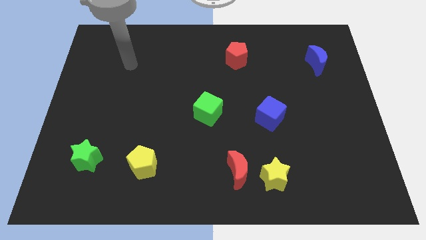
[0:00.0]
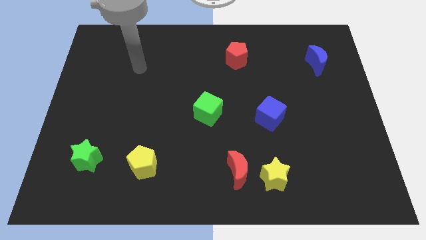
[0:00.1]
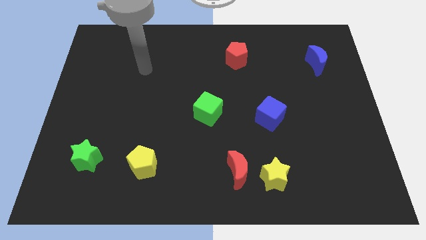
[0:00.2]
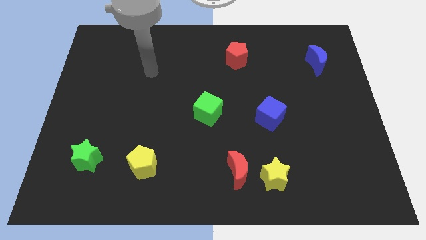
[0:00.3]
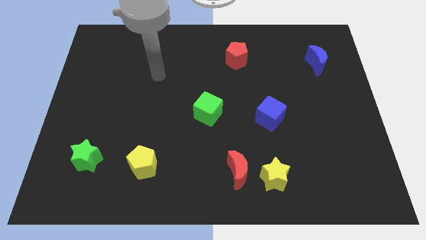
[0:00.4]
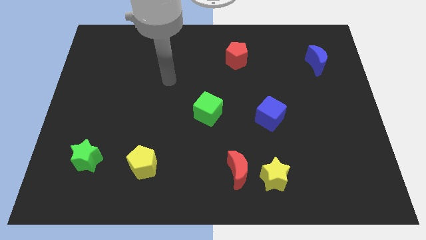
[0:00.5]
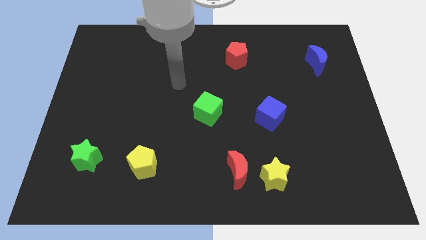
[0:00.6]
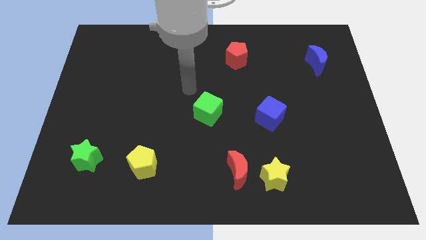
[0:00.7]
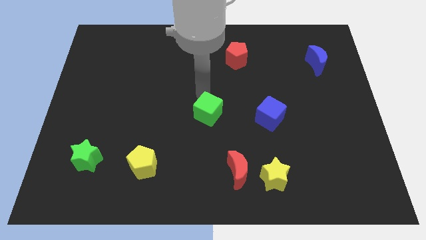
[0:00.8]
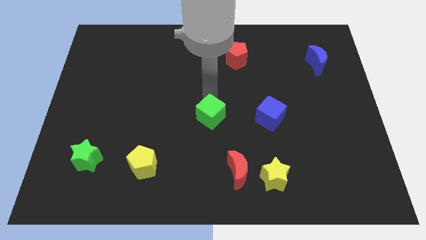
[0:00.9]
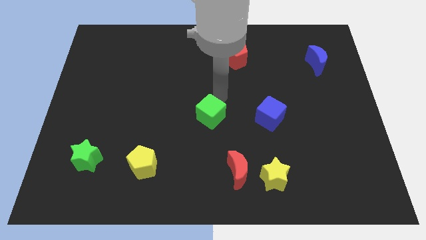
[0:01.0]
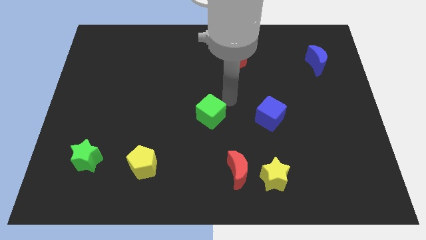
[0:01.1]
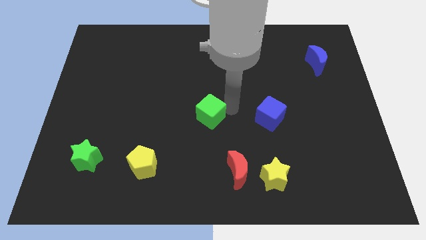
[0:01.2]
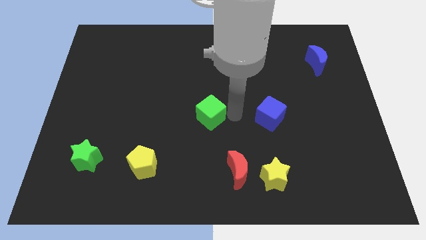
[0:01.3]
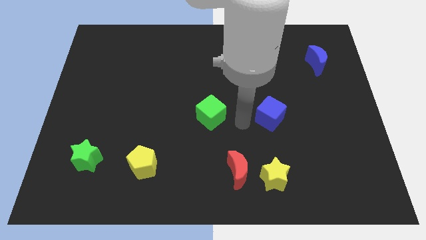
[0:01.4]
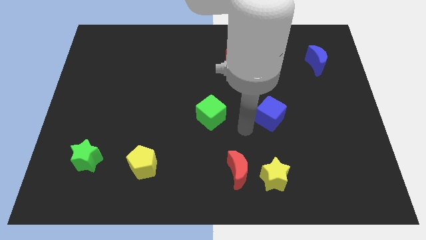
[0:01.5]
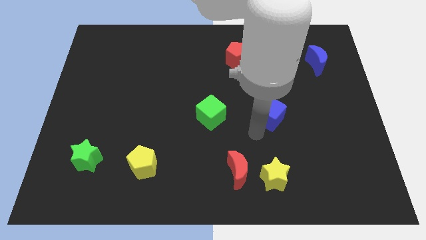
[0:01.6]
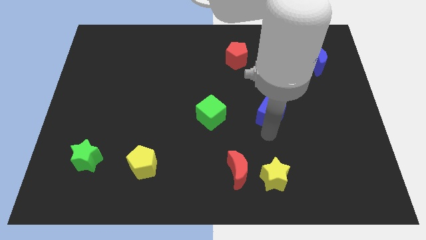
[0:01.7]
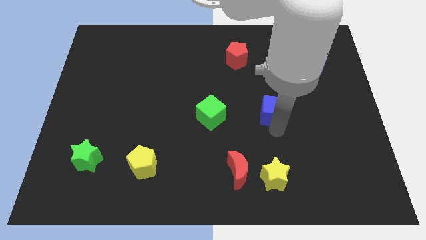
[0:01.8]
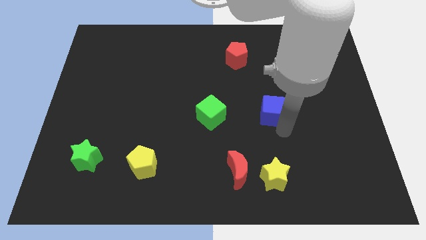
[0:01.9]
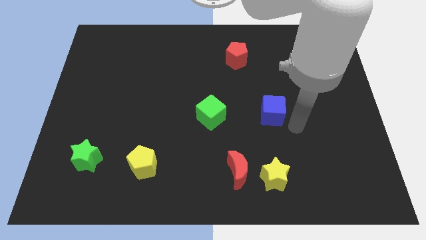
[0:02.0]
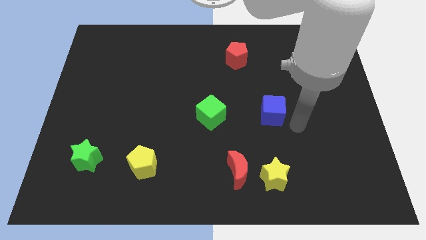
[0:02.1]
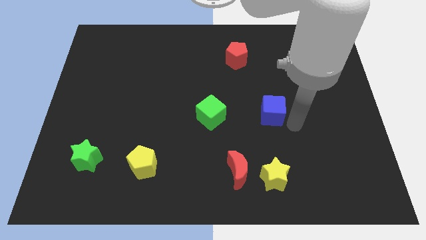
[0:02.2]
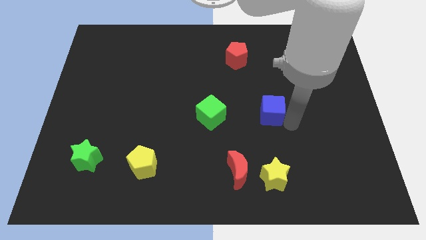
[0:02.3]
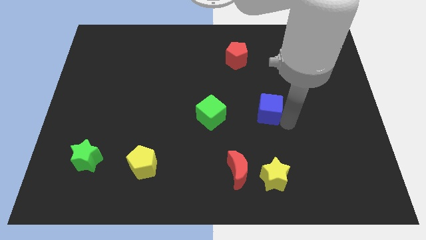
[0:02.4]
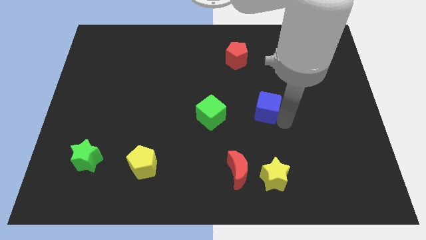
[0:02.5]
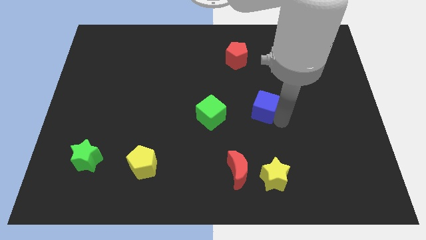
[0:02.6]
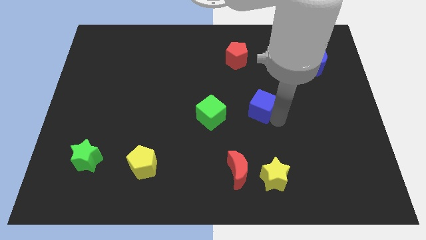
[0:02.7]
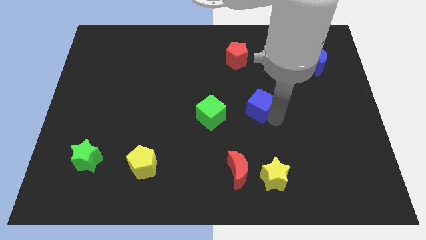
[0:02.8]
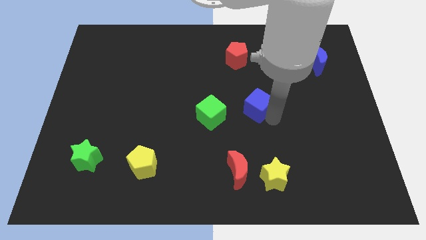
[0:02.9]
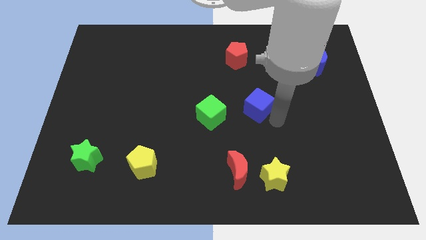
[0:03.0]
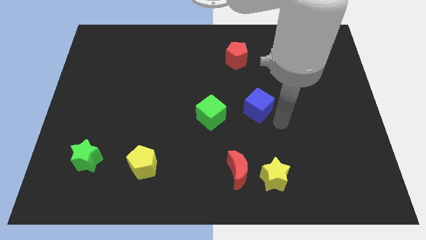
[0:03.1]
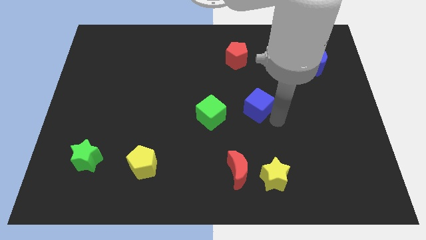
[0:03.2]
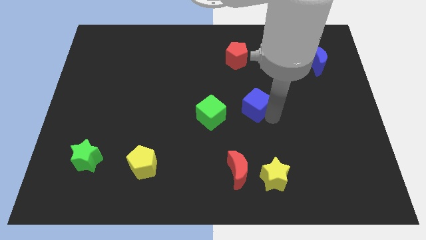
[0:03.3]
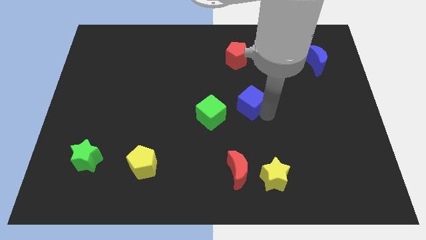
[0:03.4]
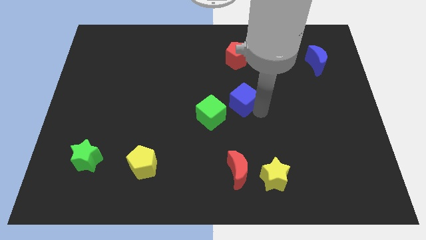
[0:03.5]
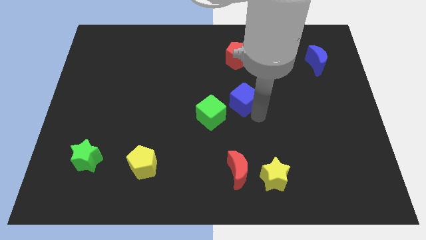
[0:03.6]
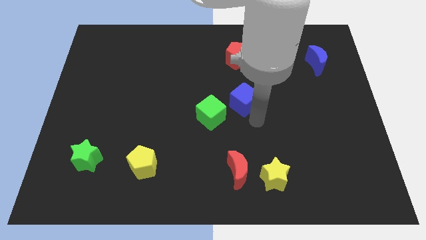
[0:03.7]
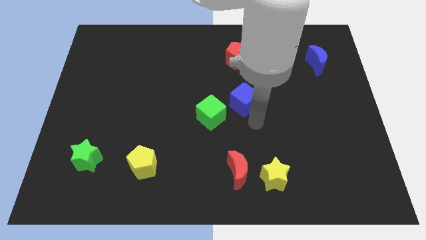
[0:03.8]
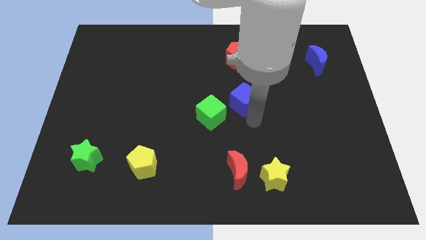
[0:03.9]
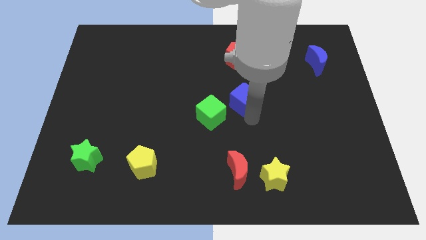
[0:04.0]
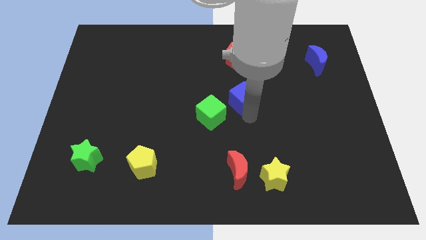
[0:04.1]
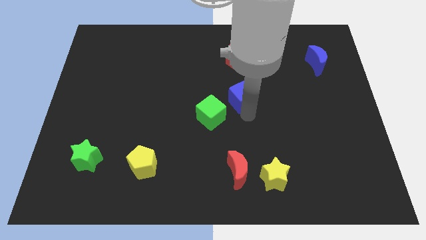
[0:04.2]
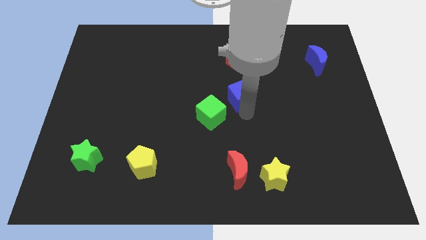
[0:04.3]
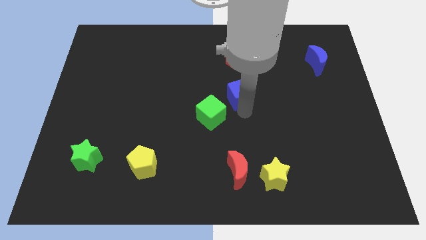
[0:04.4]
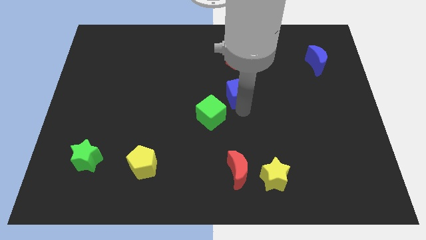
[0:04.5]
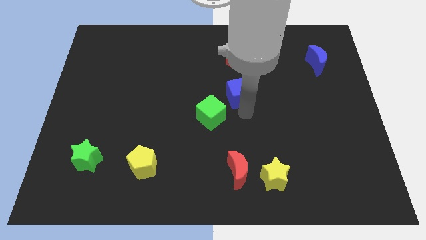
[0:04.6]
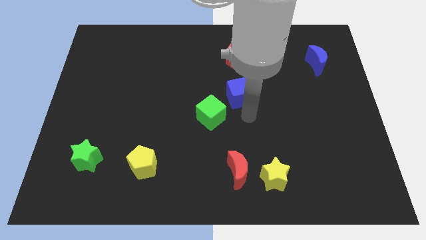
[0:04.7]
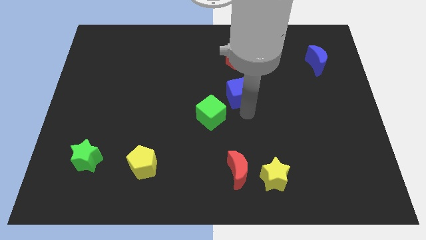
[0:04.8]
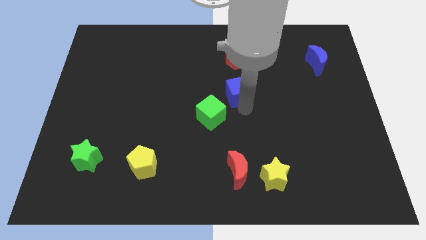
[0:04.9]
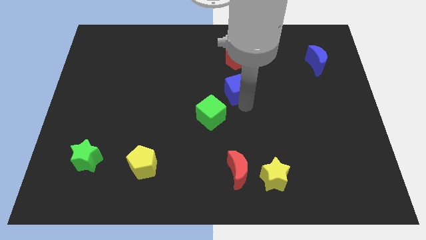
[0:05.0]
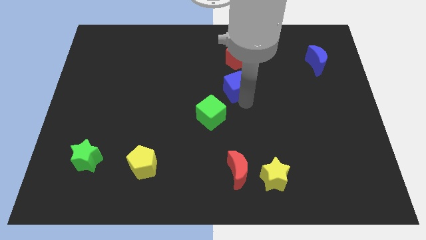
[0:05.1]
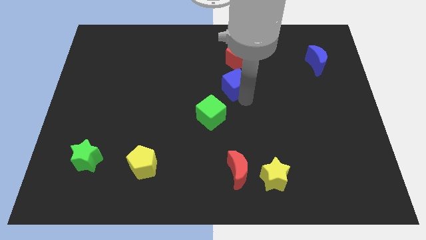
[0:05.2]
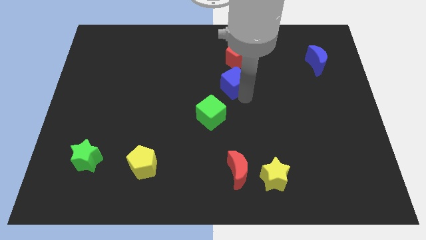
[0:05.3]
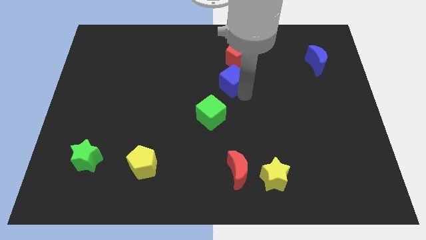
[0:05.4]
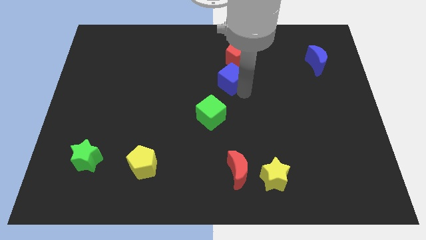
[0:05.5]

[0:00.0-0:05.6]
slide the blue cube diagonally down and to the left of the red pentagon
